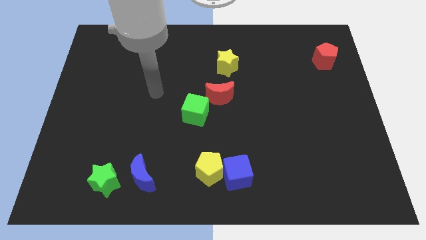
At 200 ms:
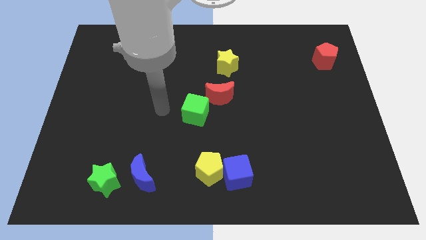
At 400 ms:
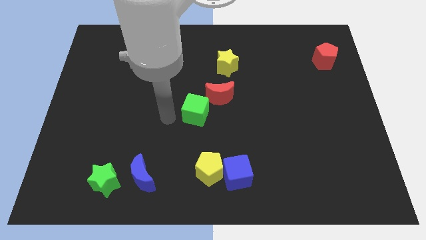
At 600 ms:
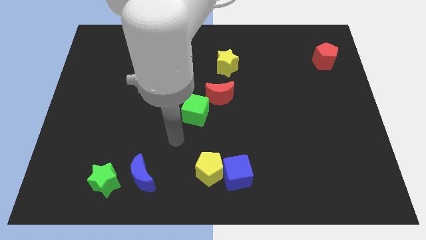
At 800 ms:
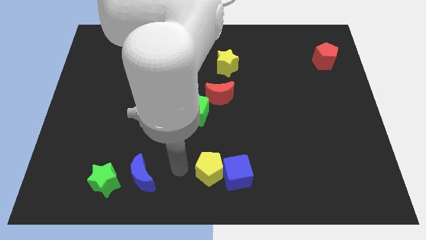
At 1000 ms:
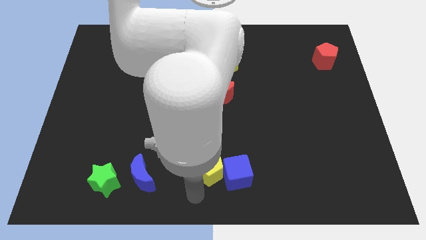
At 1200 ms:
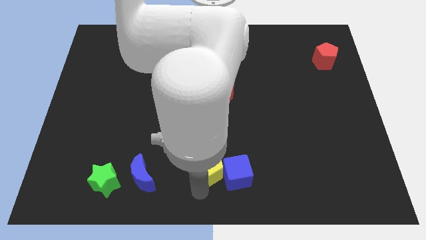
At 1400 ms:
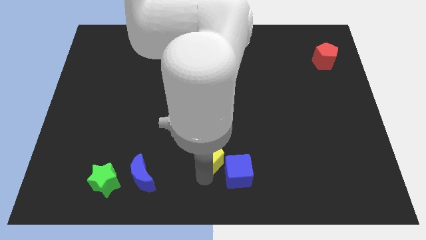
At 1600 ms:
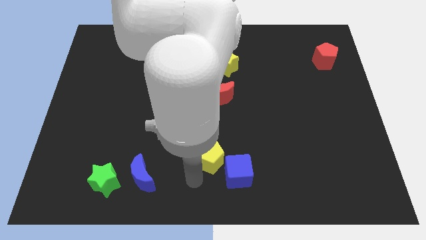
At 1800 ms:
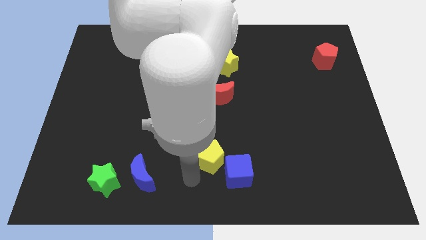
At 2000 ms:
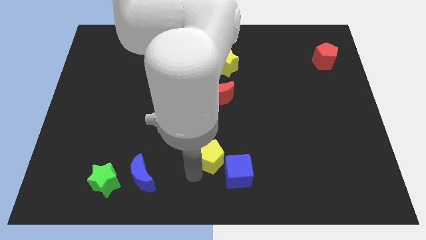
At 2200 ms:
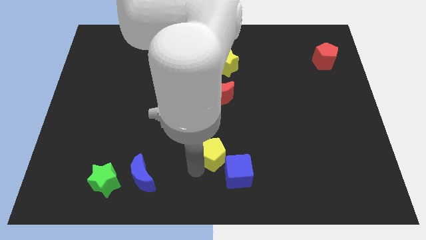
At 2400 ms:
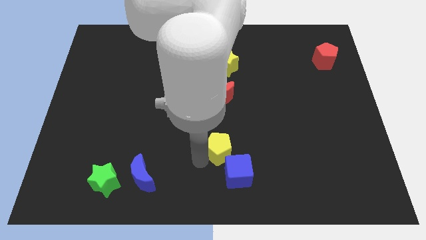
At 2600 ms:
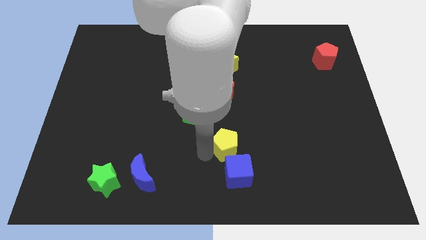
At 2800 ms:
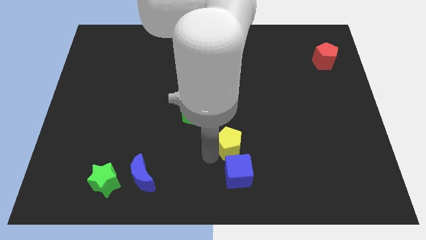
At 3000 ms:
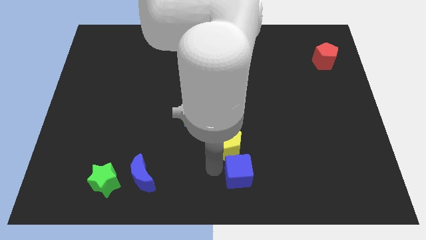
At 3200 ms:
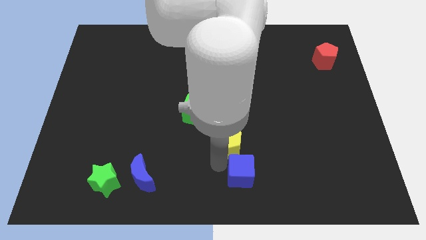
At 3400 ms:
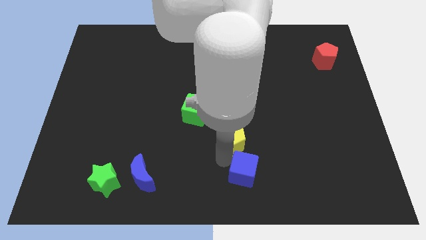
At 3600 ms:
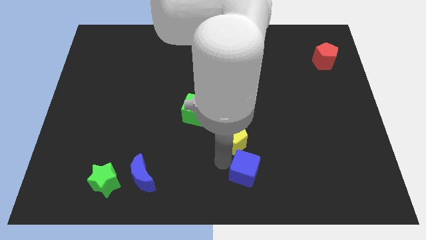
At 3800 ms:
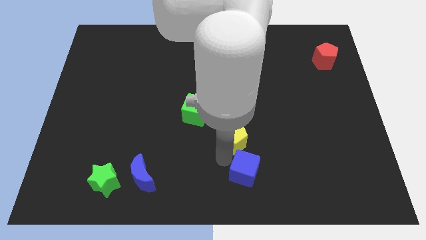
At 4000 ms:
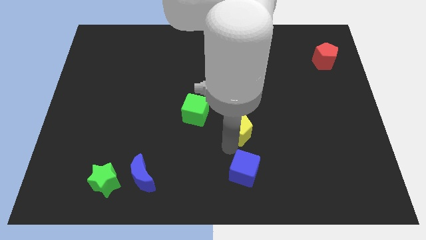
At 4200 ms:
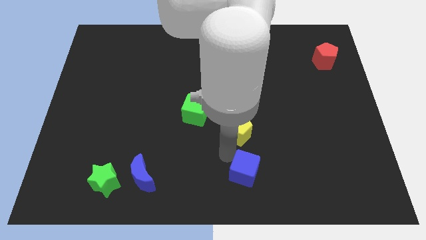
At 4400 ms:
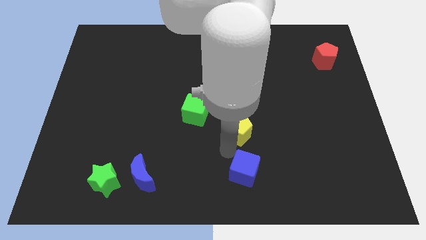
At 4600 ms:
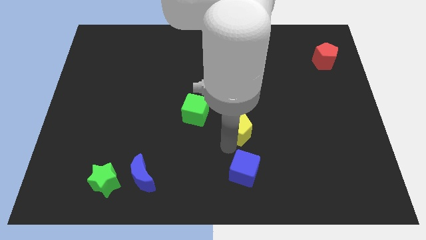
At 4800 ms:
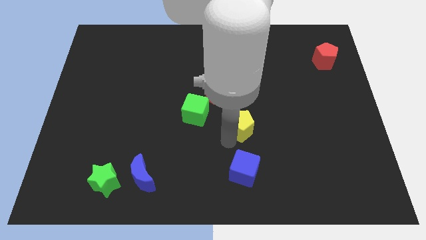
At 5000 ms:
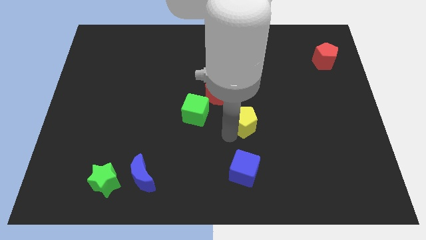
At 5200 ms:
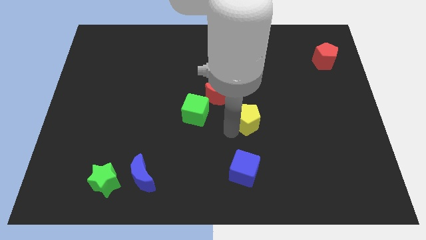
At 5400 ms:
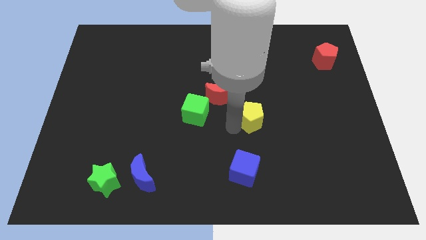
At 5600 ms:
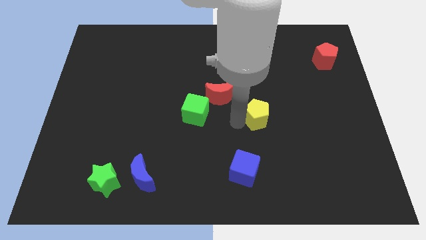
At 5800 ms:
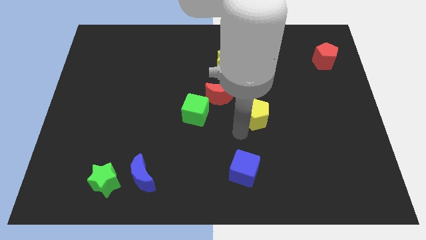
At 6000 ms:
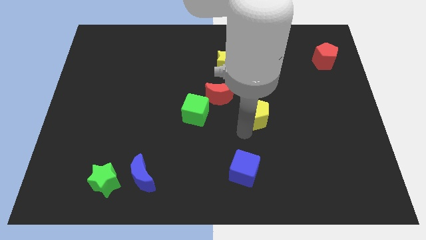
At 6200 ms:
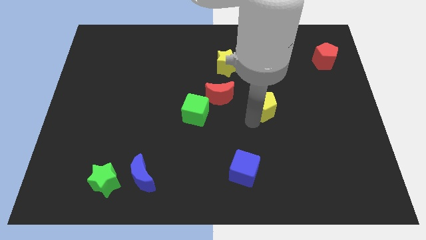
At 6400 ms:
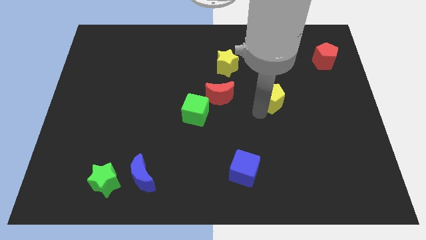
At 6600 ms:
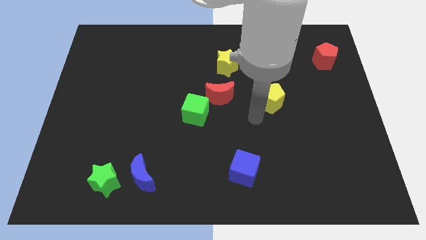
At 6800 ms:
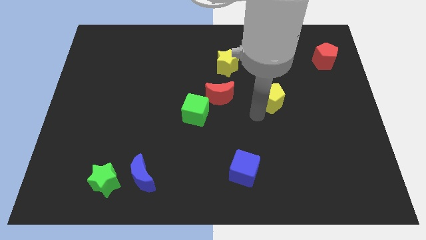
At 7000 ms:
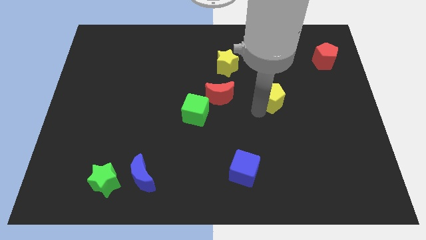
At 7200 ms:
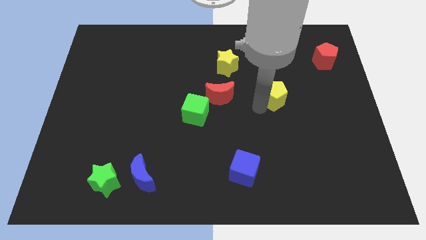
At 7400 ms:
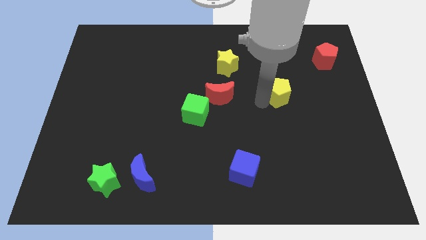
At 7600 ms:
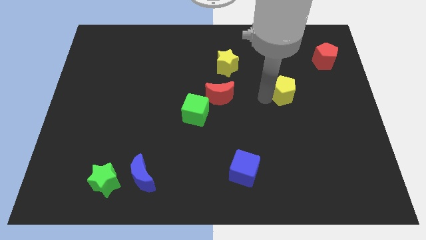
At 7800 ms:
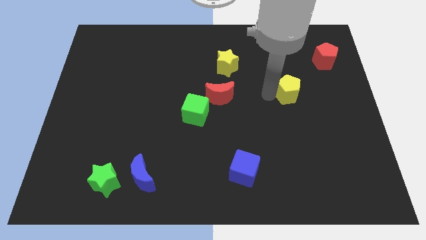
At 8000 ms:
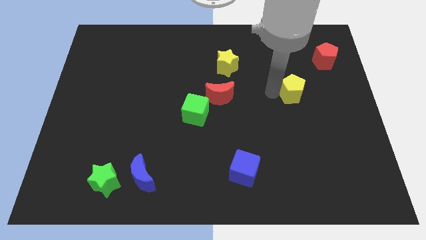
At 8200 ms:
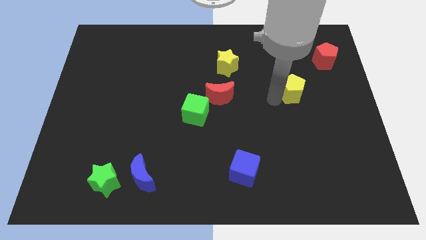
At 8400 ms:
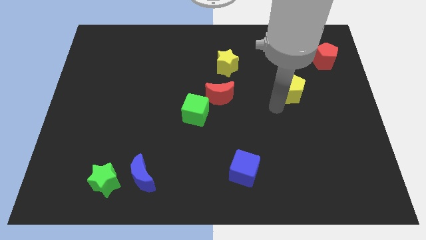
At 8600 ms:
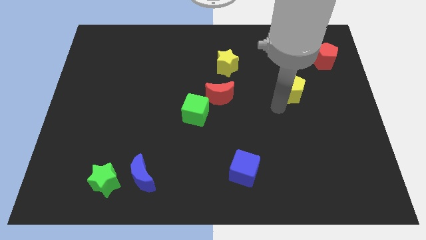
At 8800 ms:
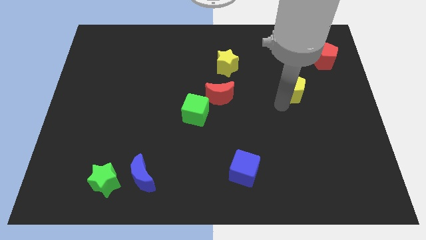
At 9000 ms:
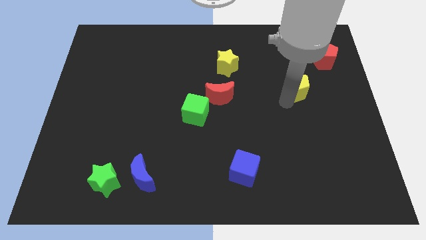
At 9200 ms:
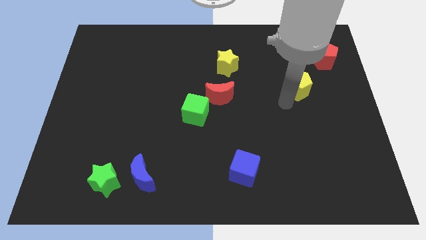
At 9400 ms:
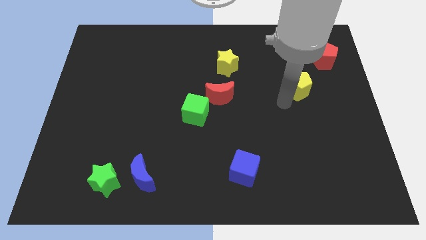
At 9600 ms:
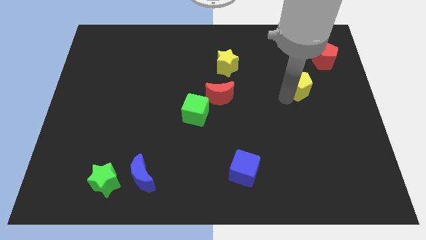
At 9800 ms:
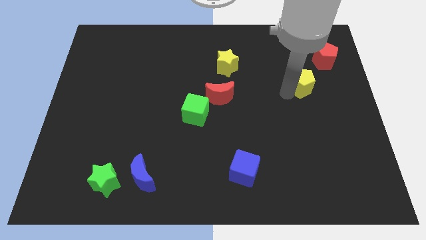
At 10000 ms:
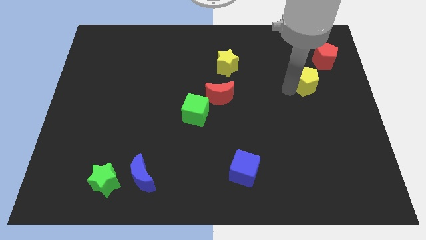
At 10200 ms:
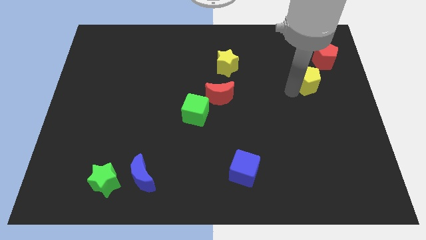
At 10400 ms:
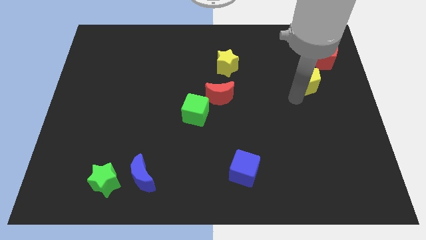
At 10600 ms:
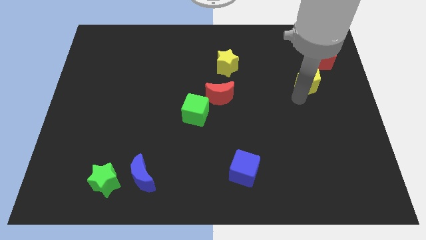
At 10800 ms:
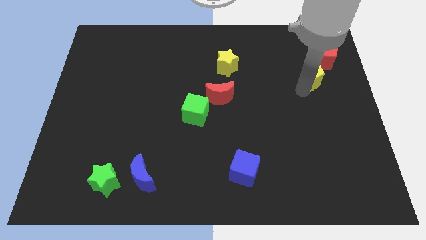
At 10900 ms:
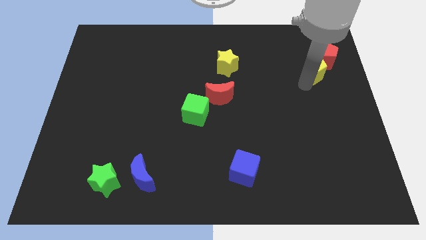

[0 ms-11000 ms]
move the yellow pentagon towards the red pentagon

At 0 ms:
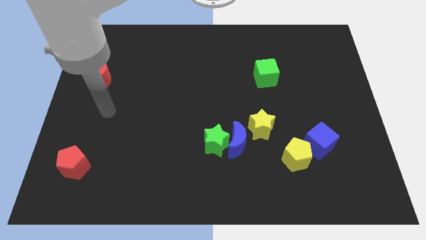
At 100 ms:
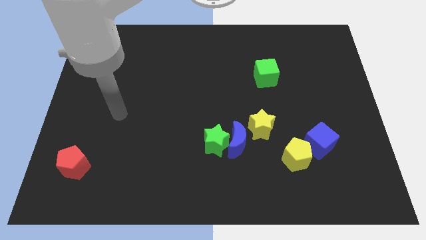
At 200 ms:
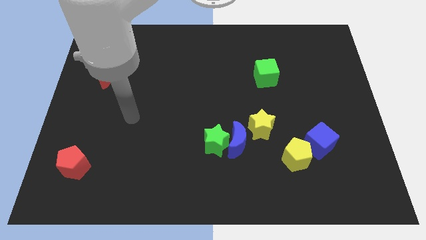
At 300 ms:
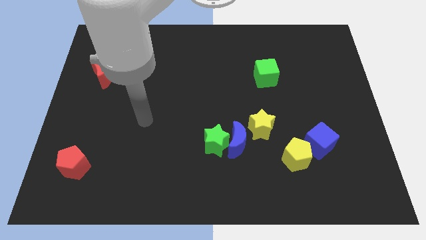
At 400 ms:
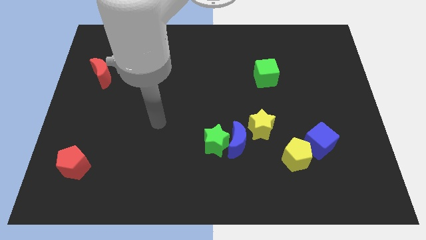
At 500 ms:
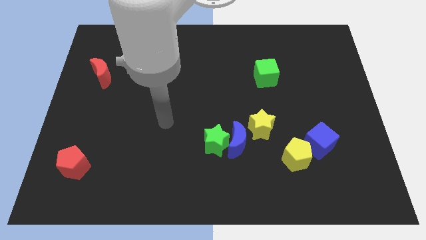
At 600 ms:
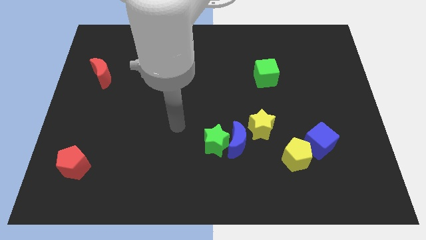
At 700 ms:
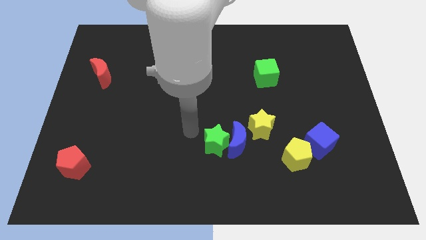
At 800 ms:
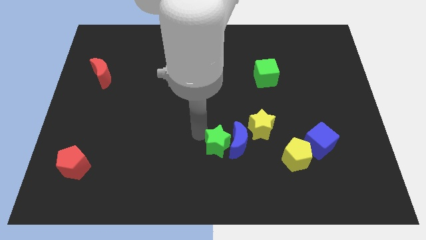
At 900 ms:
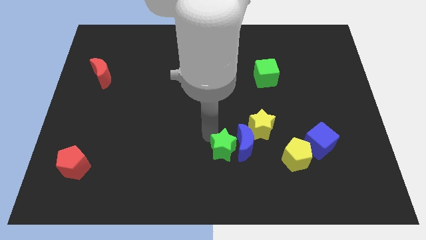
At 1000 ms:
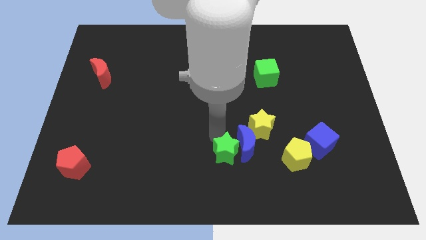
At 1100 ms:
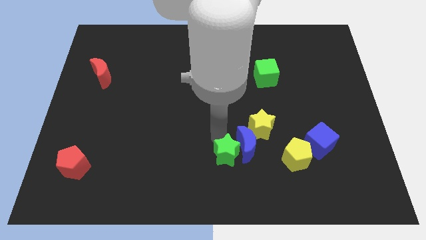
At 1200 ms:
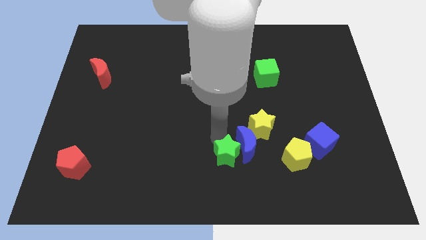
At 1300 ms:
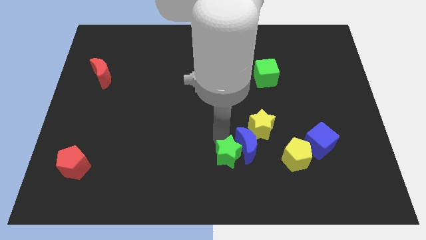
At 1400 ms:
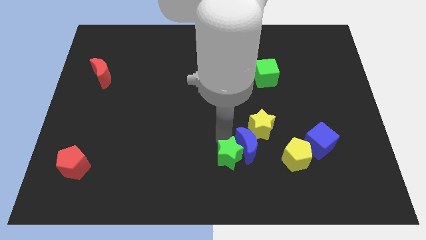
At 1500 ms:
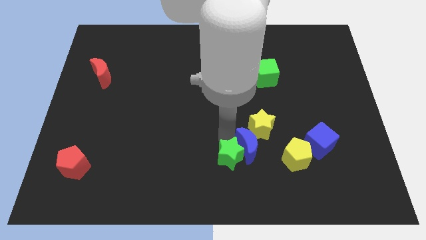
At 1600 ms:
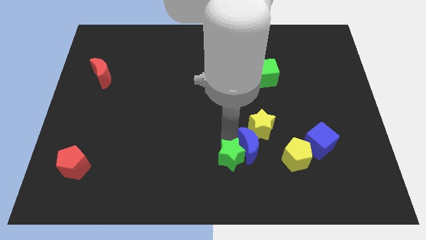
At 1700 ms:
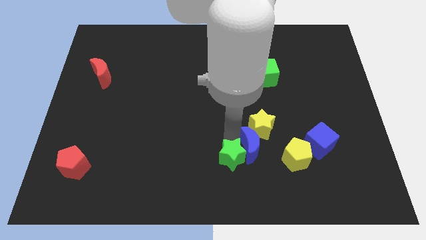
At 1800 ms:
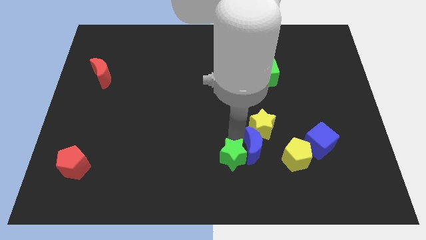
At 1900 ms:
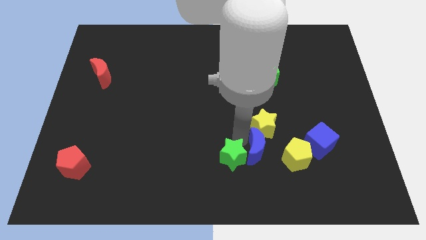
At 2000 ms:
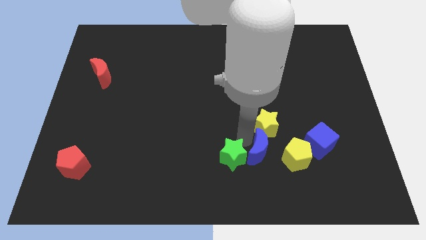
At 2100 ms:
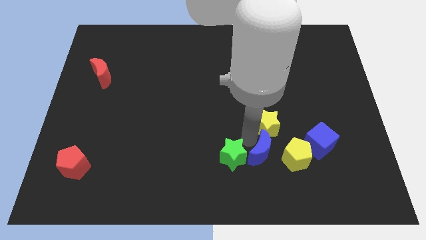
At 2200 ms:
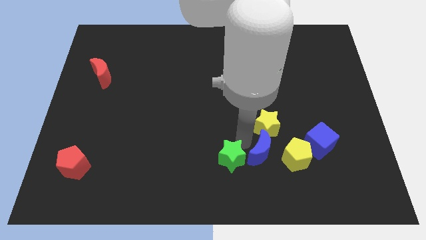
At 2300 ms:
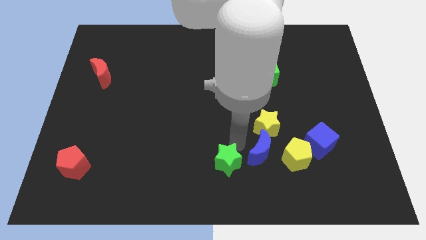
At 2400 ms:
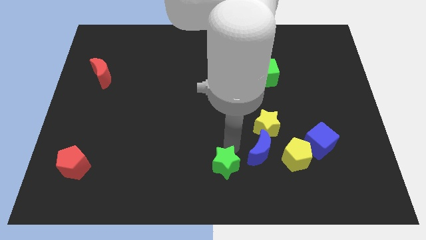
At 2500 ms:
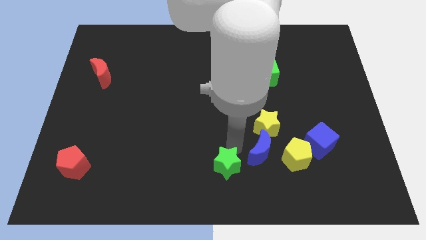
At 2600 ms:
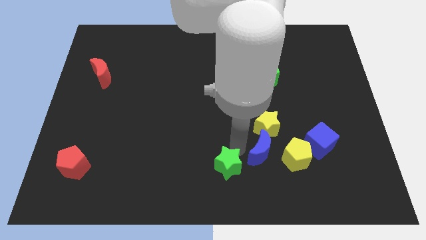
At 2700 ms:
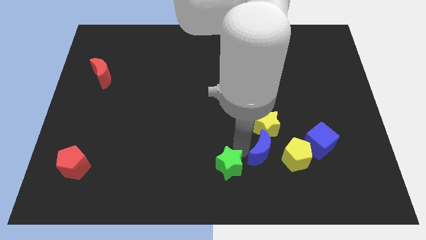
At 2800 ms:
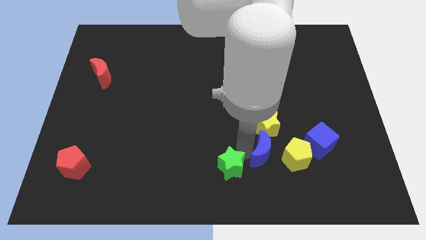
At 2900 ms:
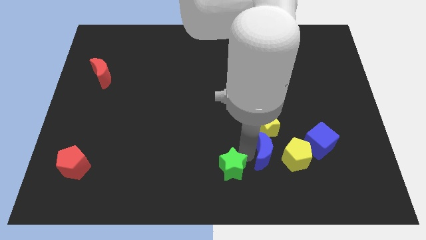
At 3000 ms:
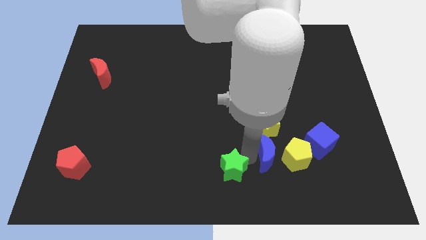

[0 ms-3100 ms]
move the blue moon towards the yellow pentagon

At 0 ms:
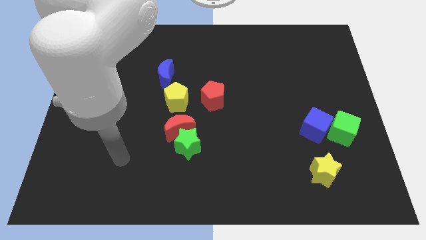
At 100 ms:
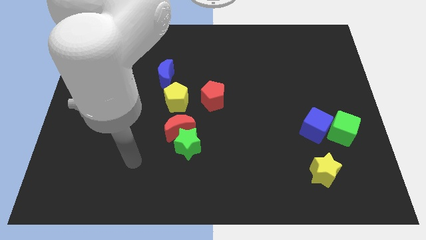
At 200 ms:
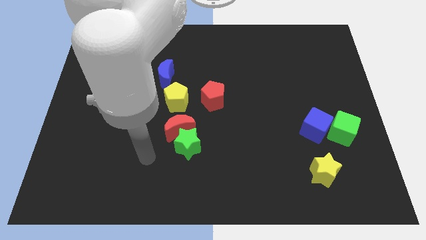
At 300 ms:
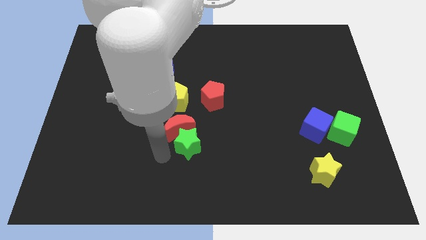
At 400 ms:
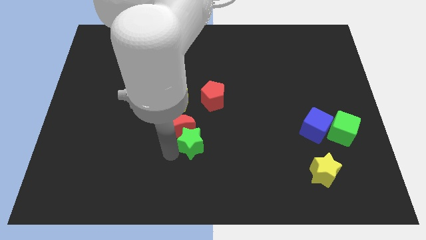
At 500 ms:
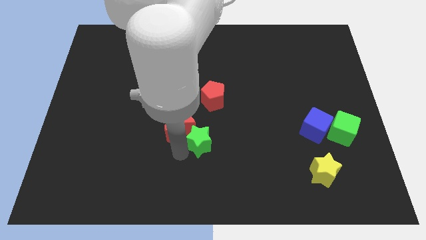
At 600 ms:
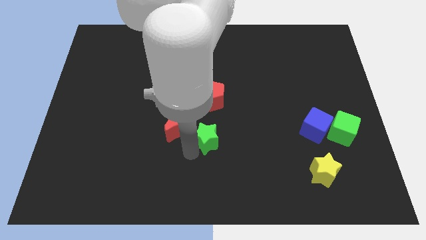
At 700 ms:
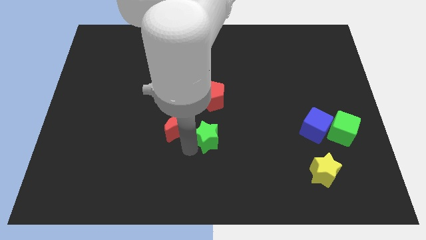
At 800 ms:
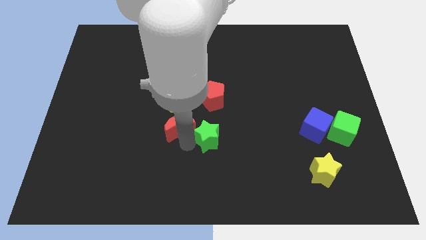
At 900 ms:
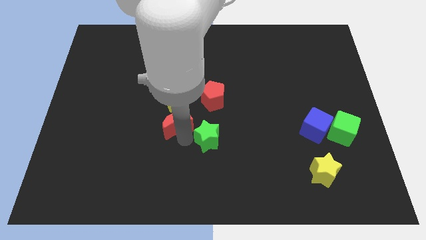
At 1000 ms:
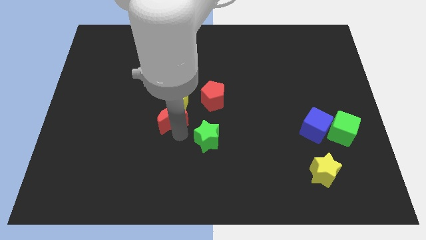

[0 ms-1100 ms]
push the red moon close to the yellow pentagon
